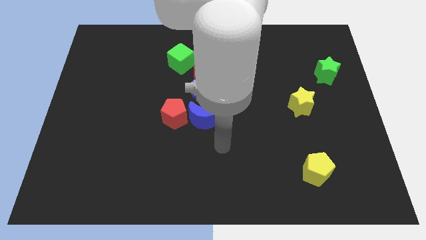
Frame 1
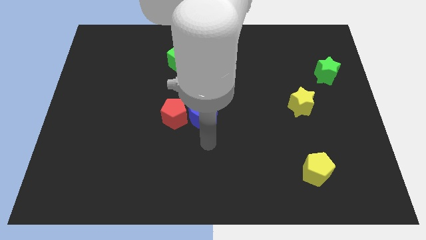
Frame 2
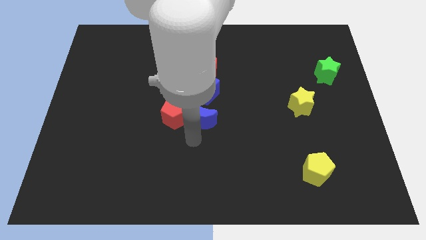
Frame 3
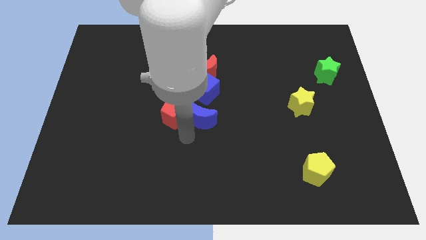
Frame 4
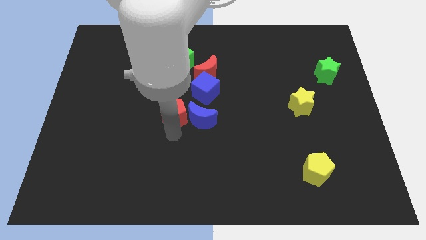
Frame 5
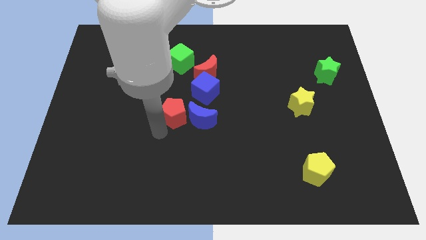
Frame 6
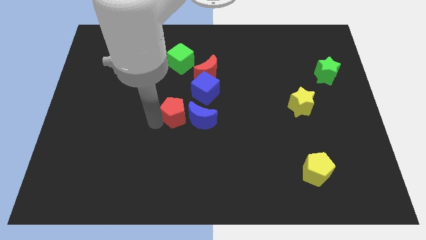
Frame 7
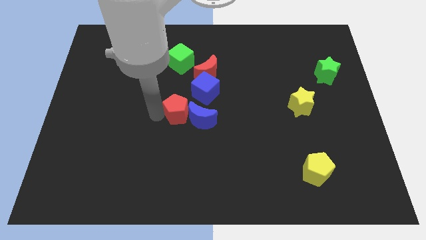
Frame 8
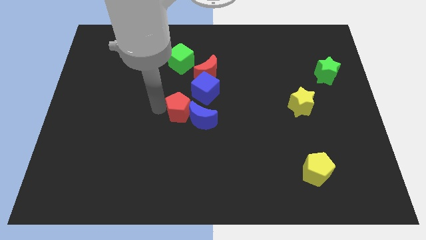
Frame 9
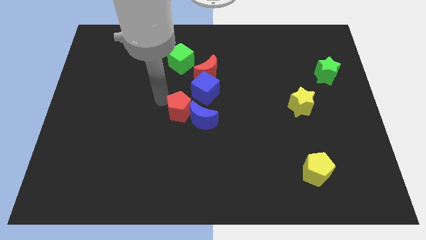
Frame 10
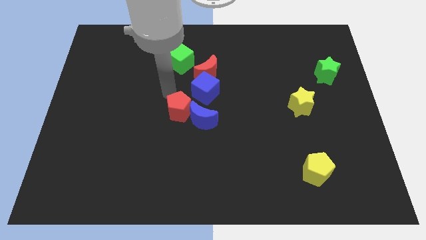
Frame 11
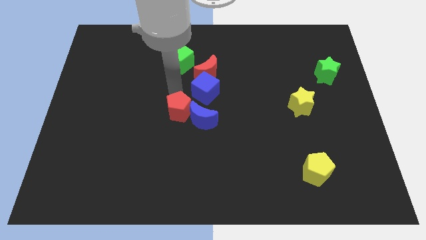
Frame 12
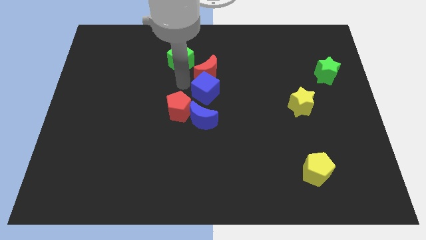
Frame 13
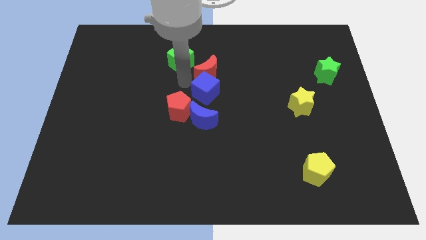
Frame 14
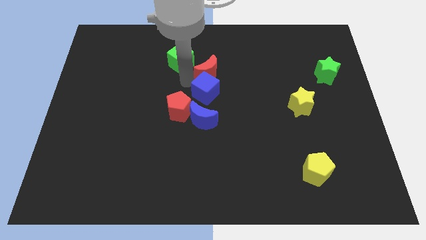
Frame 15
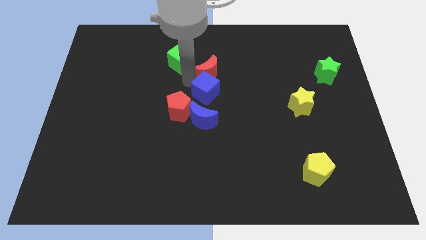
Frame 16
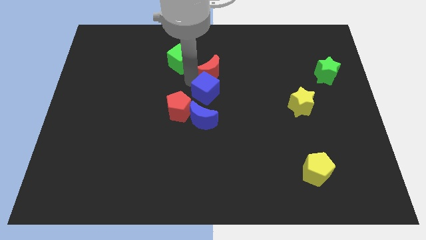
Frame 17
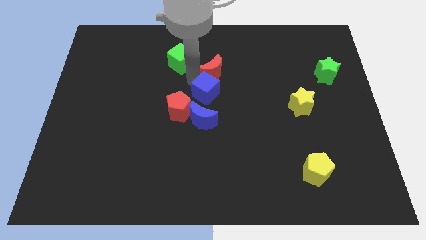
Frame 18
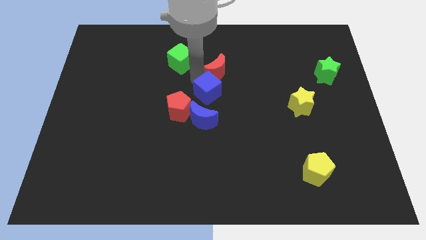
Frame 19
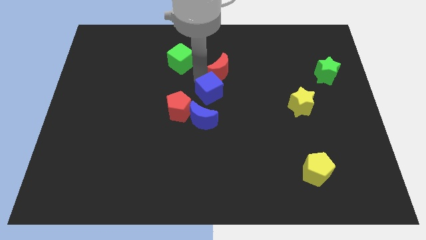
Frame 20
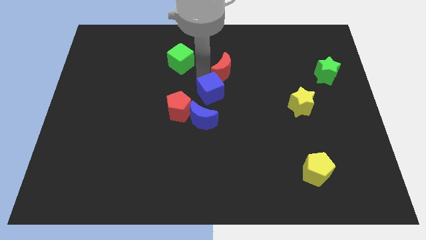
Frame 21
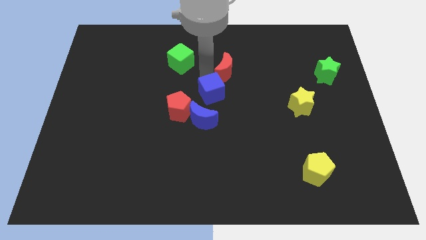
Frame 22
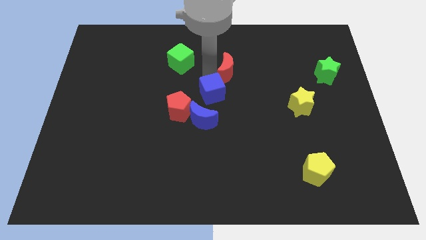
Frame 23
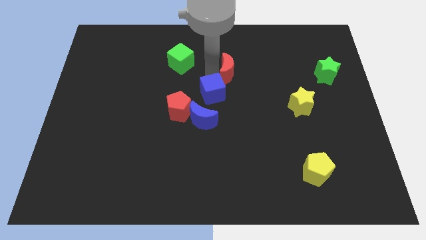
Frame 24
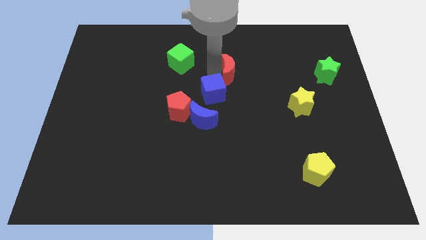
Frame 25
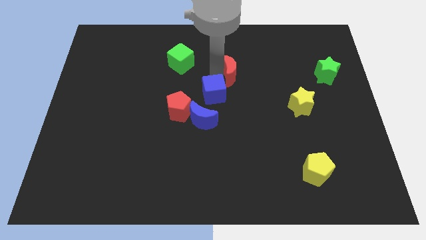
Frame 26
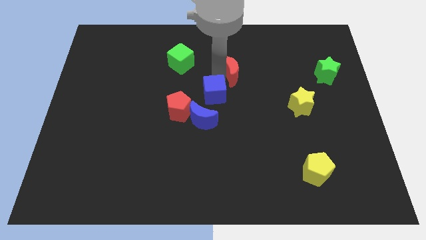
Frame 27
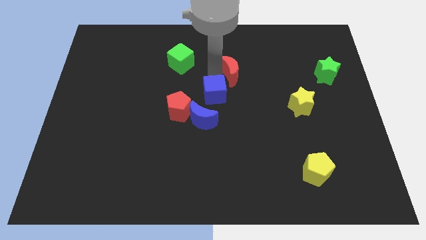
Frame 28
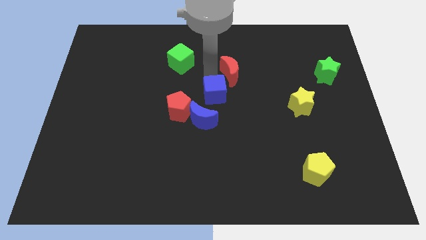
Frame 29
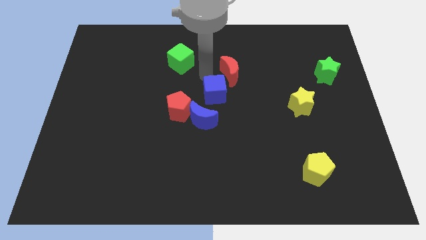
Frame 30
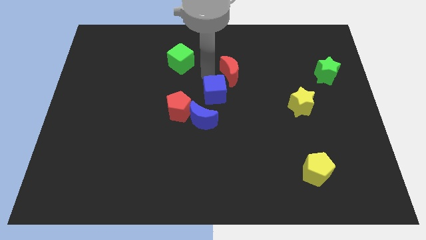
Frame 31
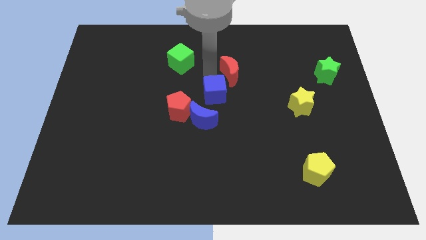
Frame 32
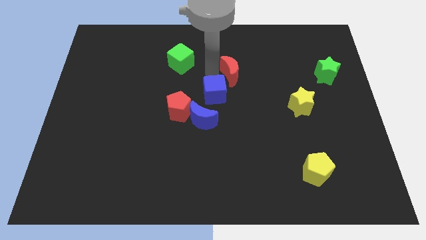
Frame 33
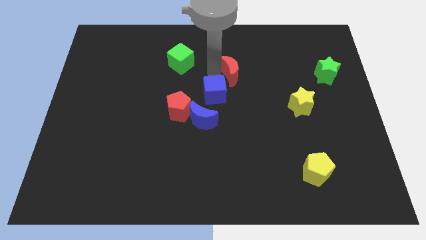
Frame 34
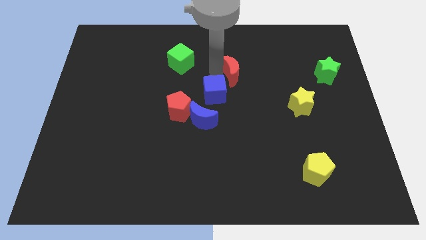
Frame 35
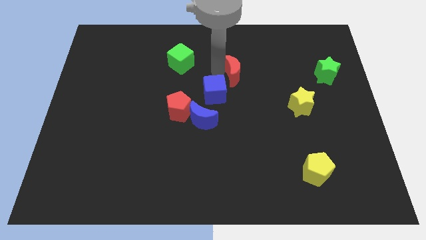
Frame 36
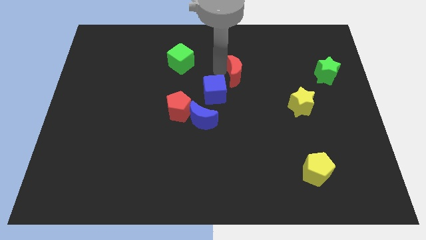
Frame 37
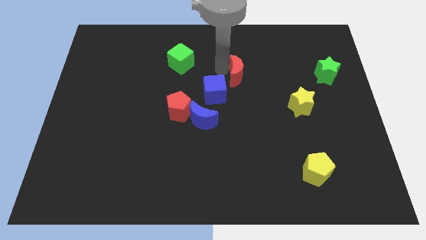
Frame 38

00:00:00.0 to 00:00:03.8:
pull the red moon apart from the blue cube and green cube

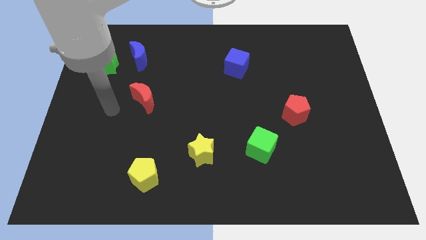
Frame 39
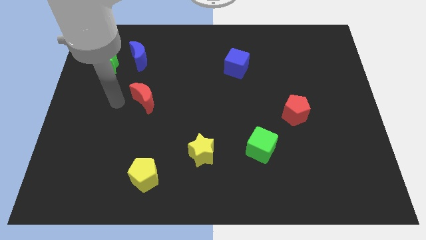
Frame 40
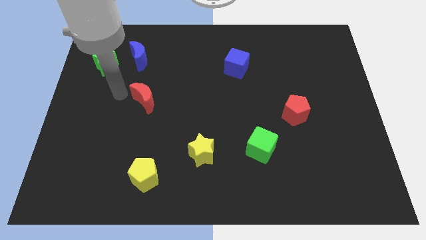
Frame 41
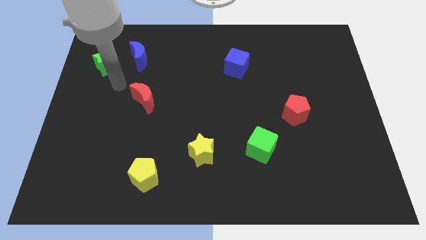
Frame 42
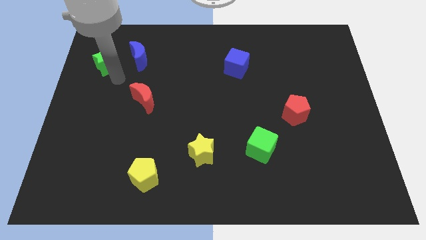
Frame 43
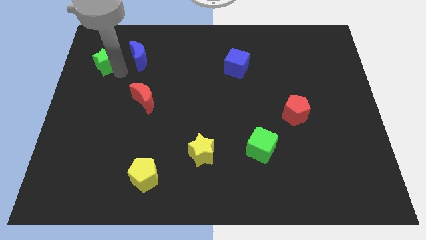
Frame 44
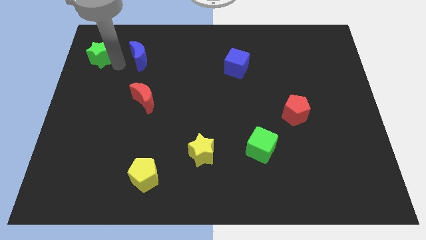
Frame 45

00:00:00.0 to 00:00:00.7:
separate the blue moon from the green star

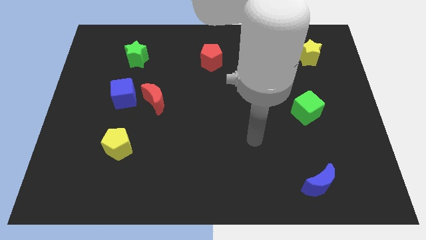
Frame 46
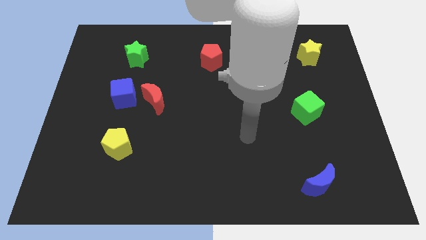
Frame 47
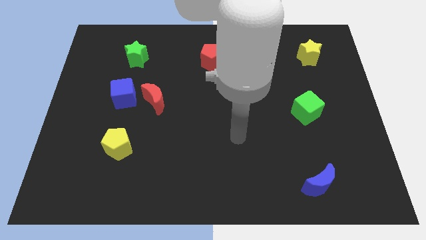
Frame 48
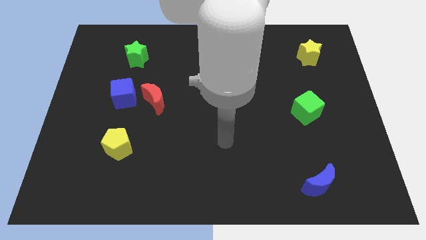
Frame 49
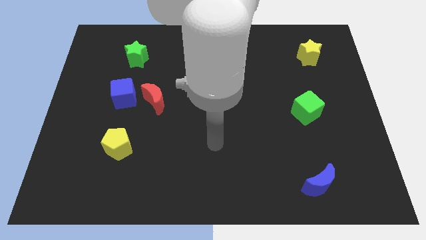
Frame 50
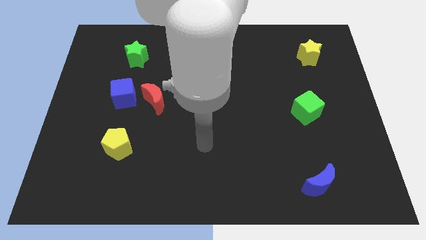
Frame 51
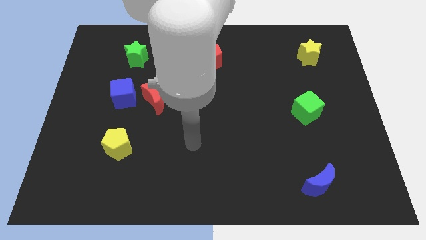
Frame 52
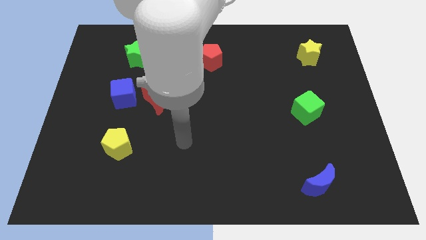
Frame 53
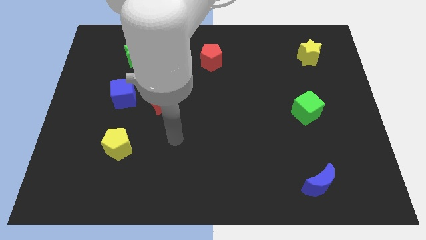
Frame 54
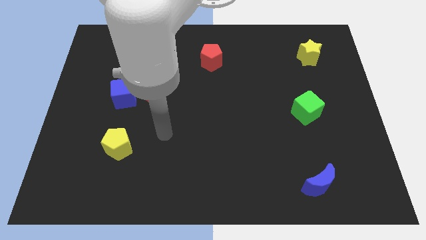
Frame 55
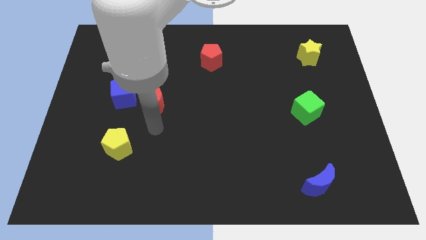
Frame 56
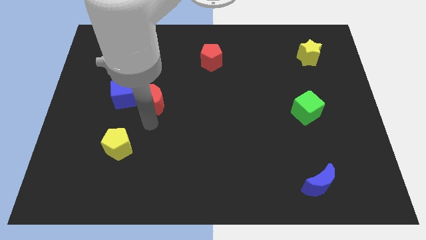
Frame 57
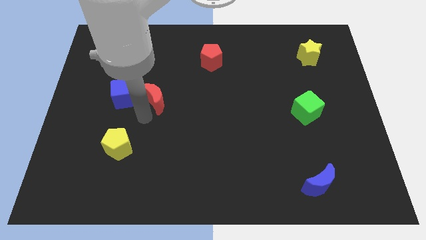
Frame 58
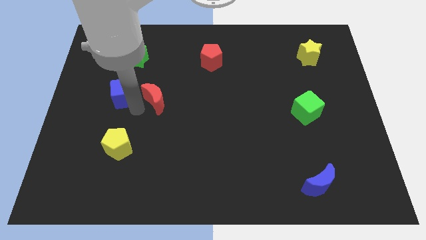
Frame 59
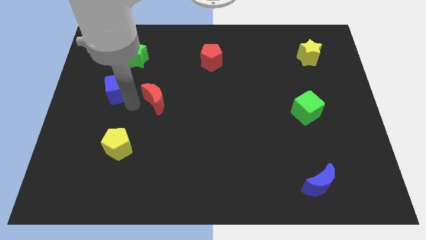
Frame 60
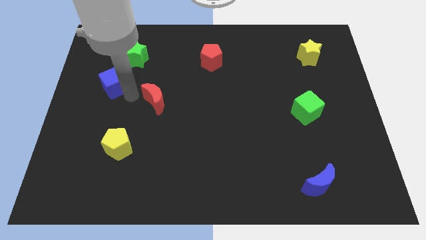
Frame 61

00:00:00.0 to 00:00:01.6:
separate the red moon from the blue cube

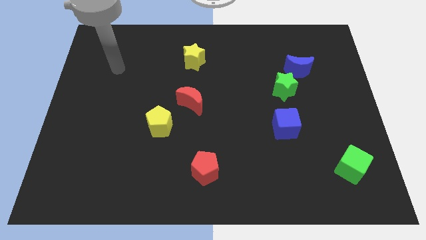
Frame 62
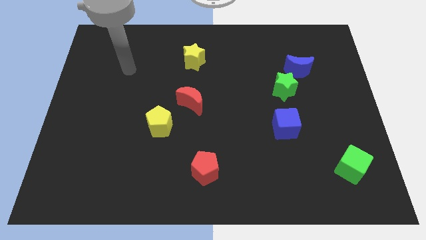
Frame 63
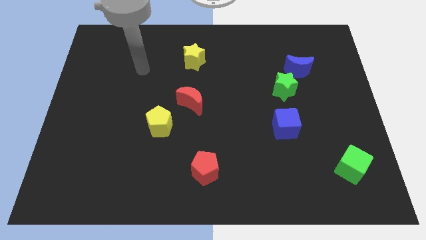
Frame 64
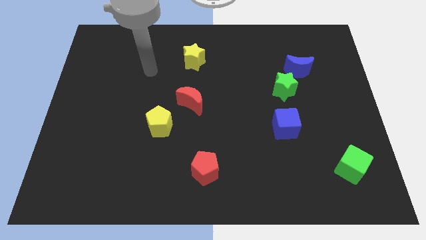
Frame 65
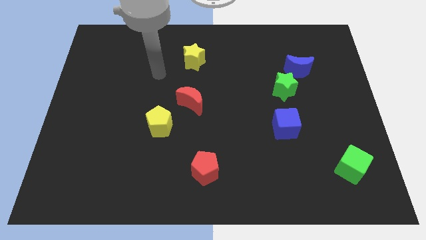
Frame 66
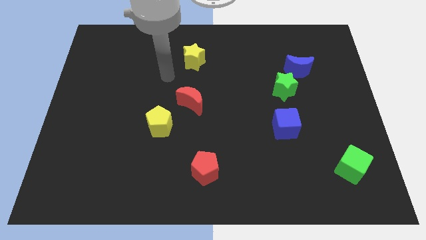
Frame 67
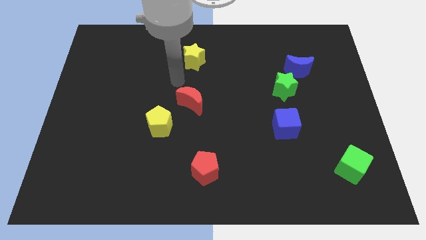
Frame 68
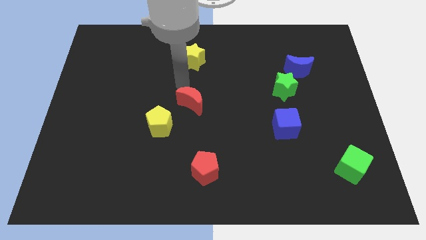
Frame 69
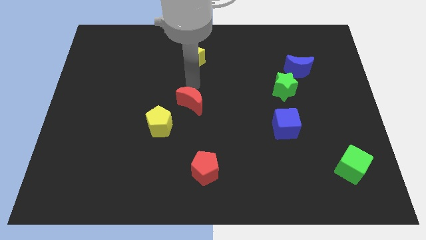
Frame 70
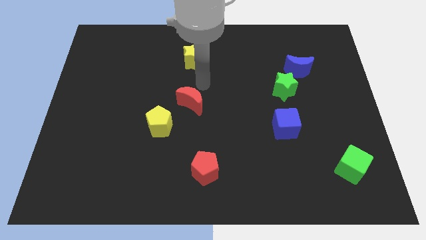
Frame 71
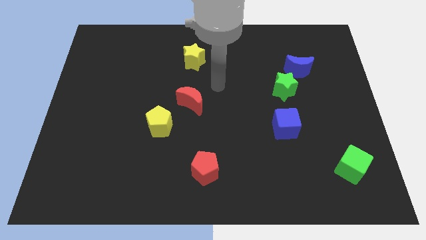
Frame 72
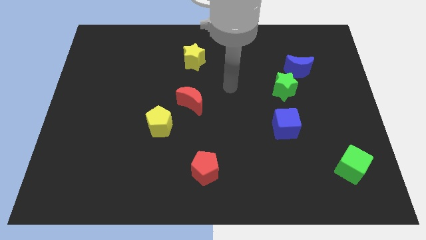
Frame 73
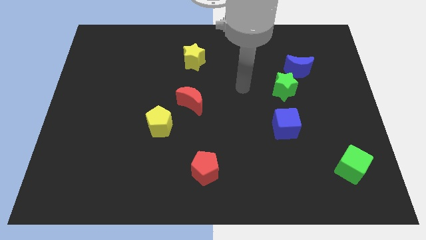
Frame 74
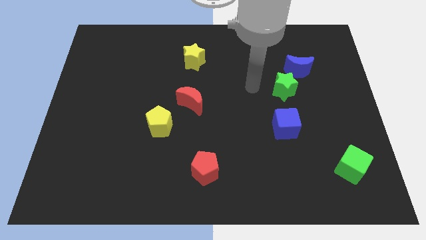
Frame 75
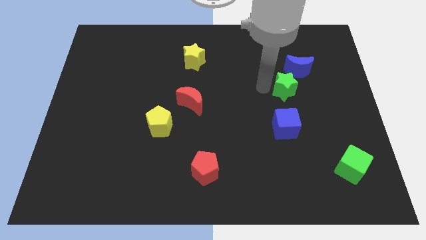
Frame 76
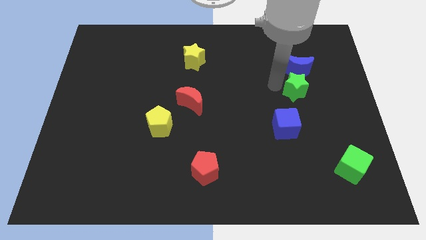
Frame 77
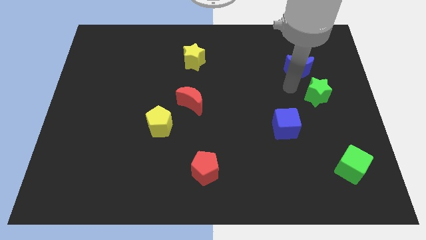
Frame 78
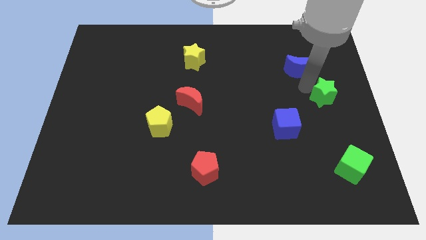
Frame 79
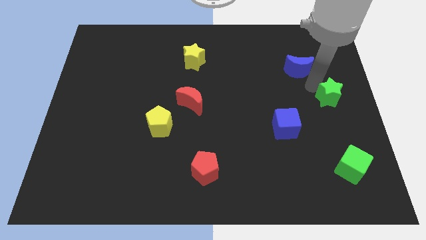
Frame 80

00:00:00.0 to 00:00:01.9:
pull the blue moon apart from the green star

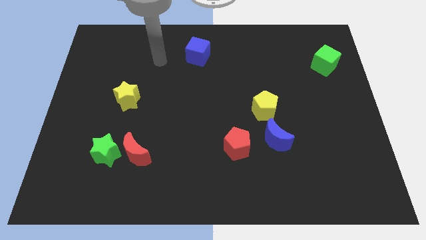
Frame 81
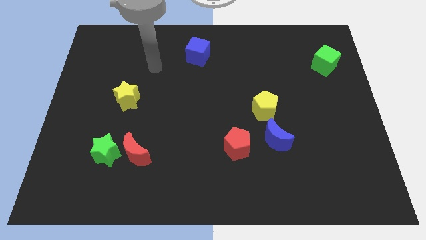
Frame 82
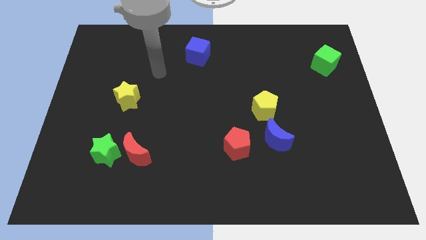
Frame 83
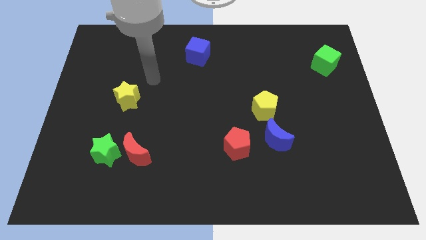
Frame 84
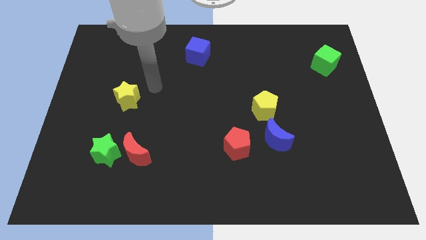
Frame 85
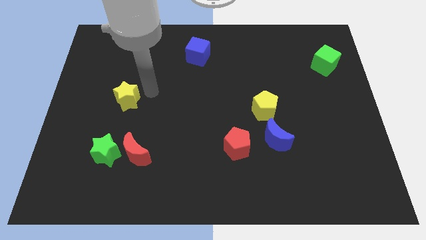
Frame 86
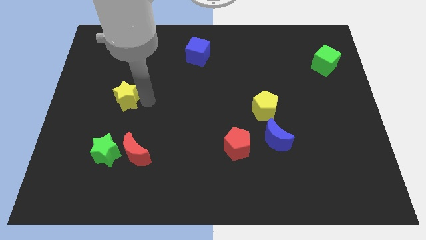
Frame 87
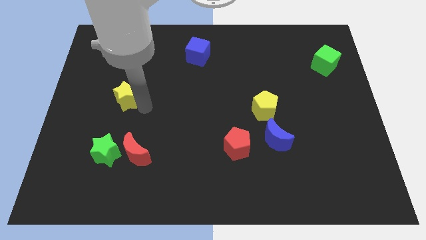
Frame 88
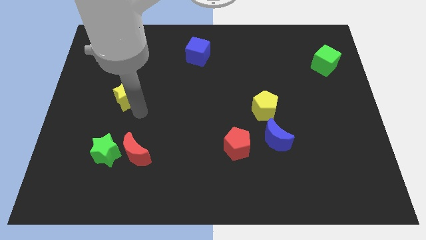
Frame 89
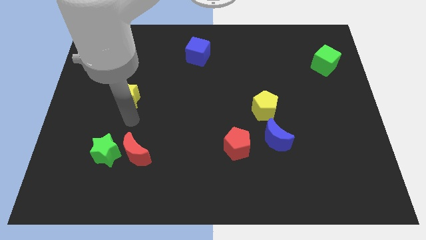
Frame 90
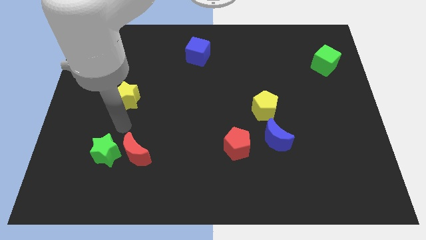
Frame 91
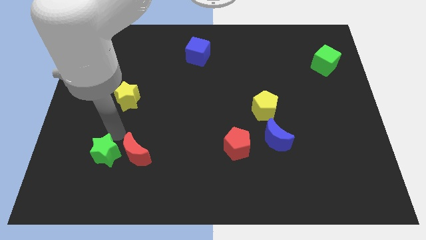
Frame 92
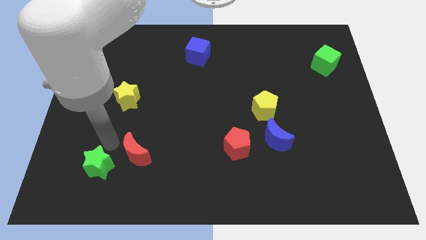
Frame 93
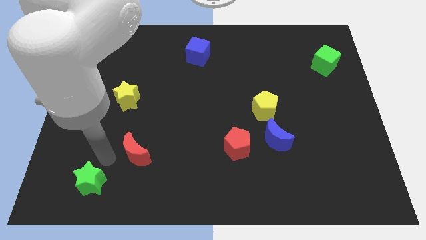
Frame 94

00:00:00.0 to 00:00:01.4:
move the red moon away from the green star
